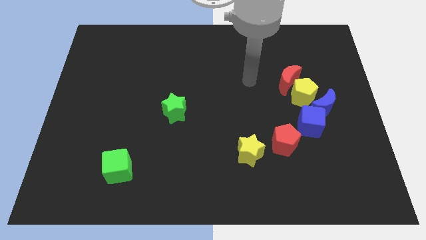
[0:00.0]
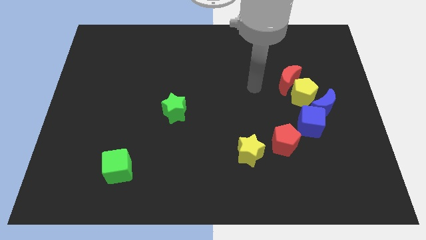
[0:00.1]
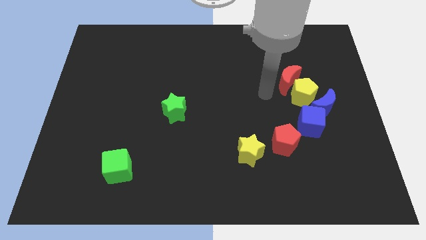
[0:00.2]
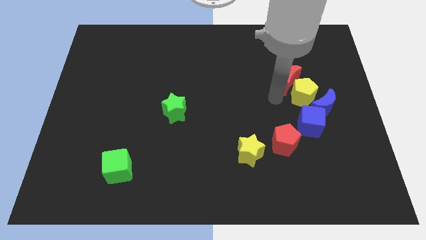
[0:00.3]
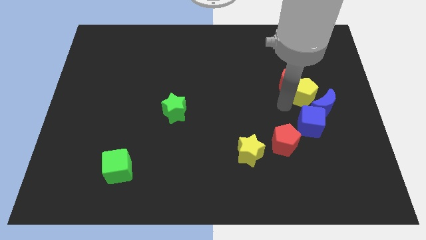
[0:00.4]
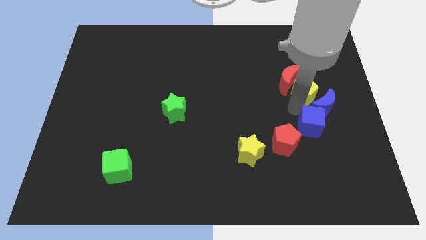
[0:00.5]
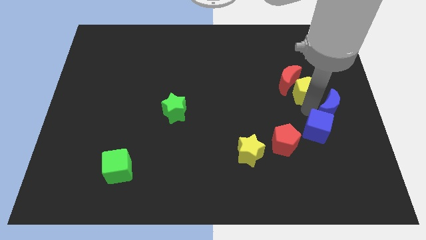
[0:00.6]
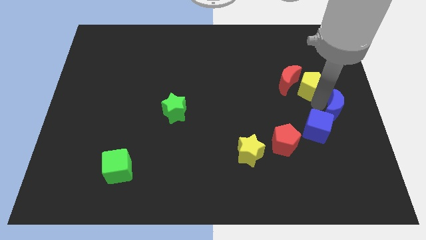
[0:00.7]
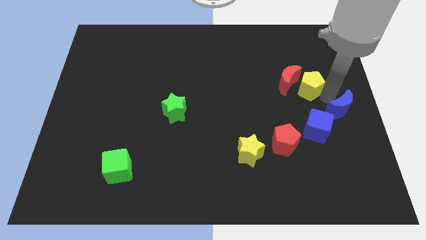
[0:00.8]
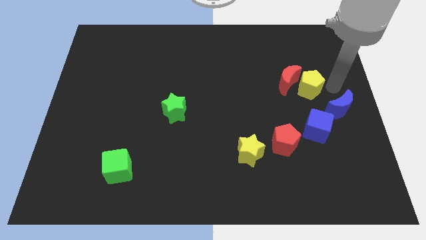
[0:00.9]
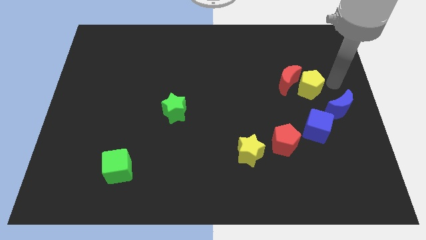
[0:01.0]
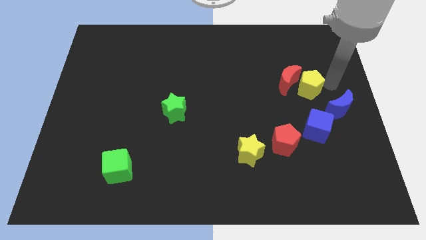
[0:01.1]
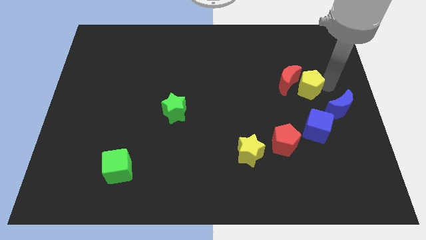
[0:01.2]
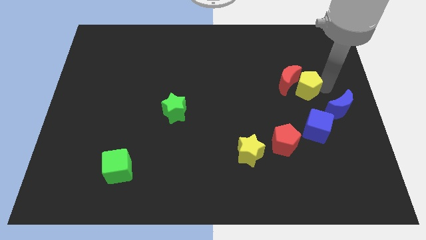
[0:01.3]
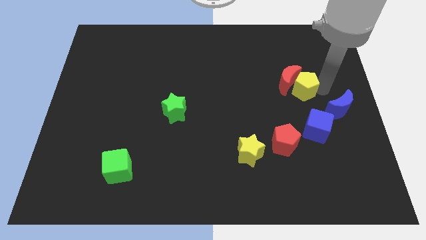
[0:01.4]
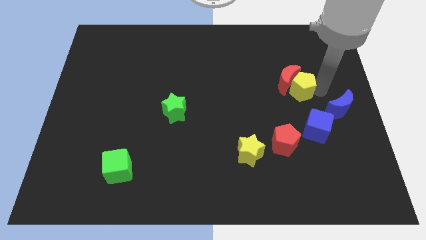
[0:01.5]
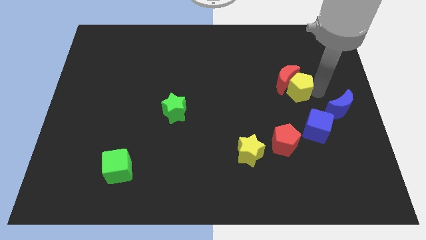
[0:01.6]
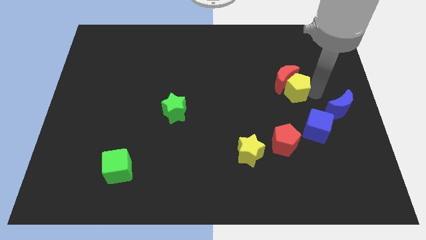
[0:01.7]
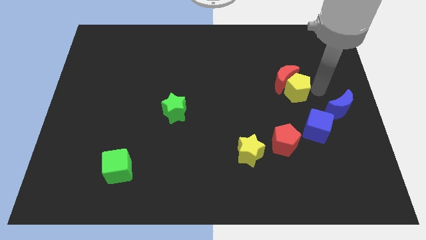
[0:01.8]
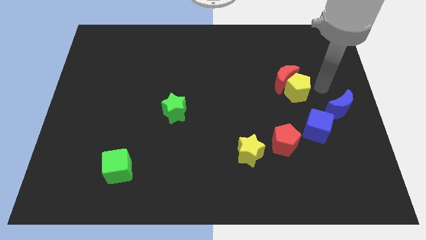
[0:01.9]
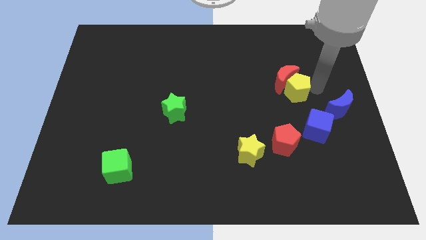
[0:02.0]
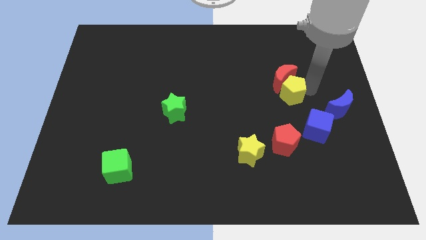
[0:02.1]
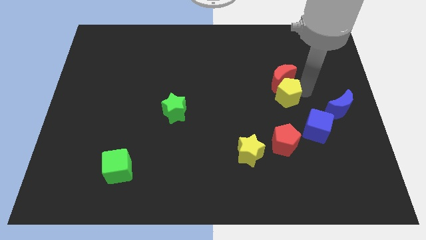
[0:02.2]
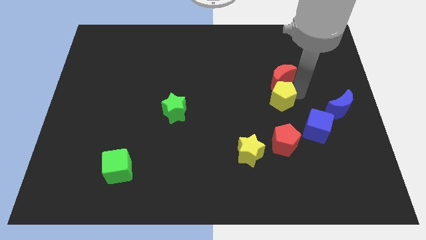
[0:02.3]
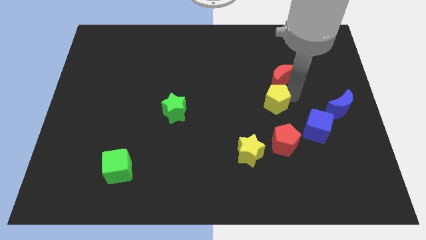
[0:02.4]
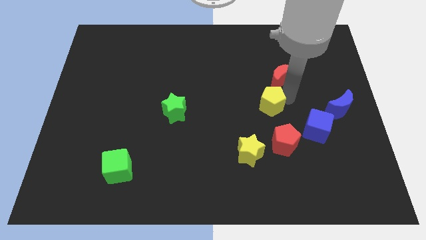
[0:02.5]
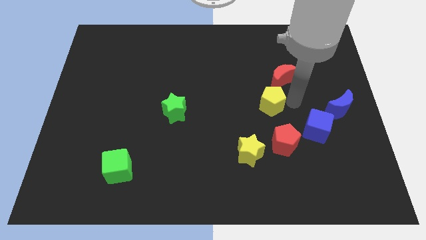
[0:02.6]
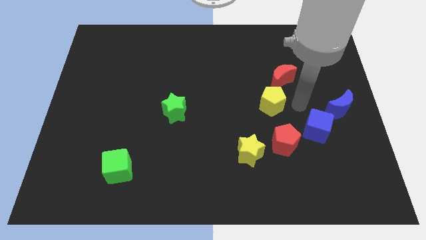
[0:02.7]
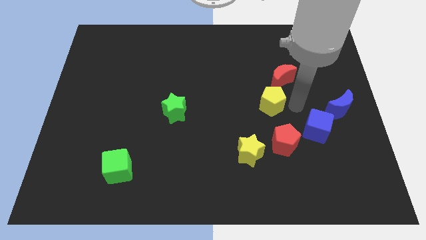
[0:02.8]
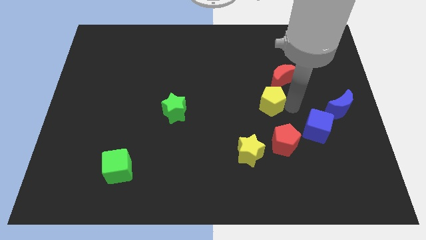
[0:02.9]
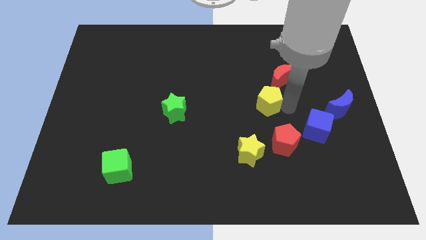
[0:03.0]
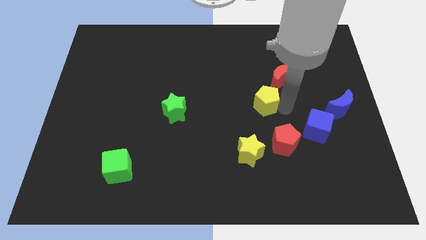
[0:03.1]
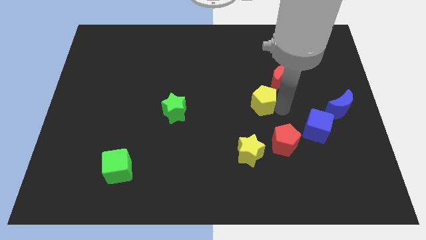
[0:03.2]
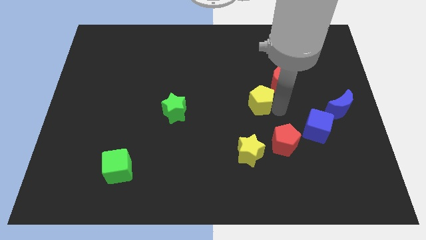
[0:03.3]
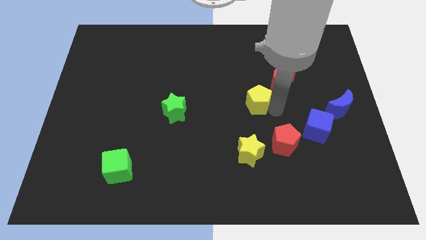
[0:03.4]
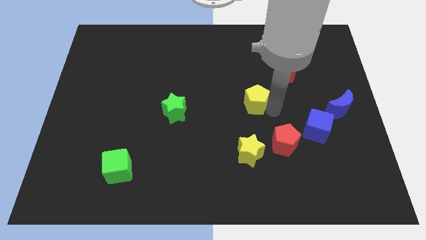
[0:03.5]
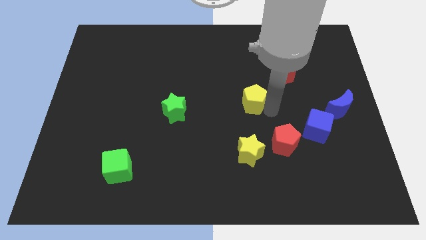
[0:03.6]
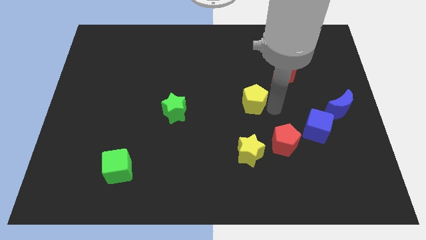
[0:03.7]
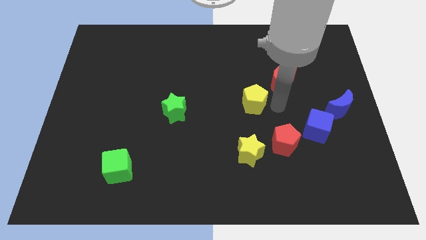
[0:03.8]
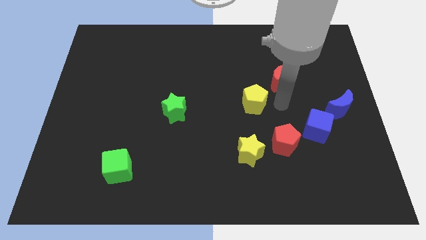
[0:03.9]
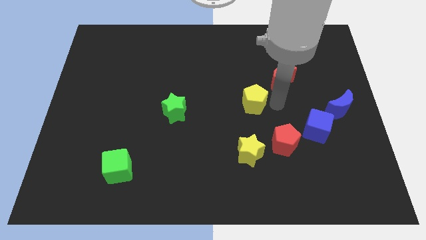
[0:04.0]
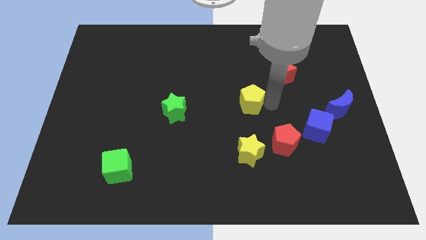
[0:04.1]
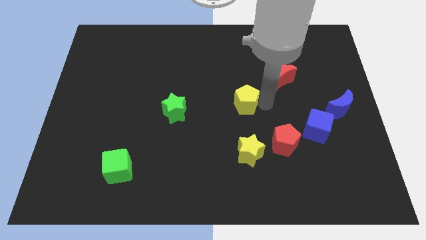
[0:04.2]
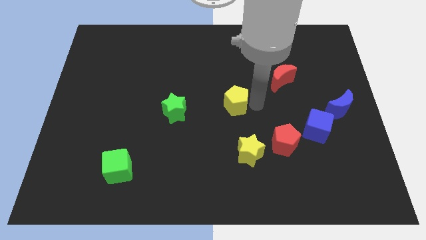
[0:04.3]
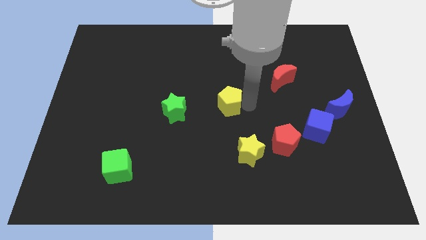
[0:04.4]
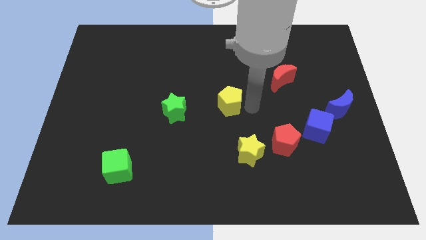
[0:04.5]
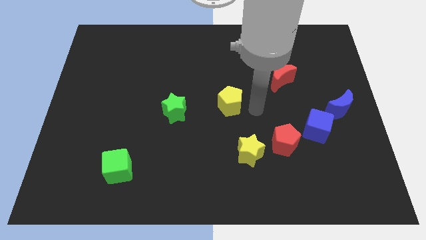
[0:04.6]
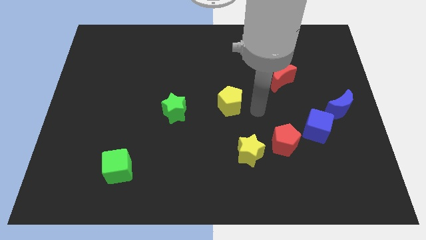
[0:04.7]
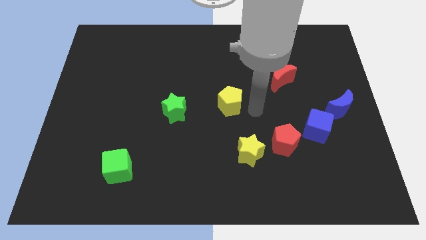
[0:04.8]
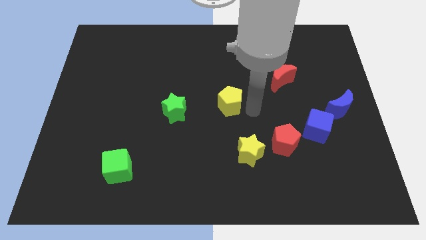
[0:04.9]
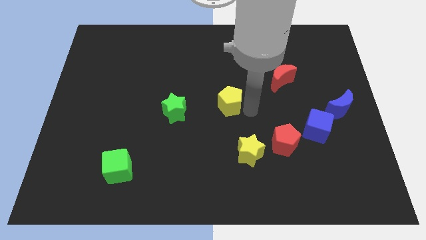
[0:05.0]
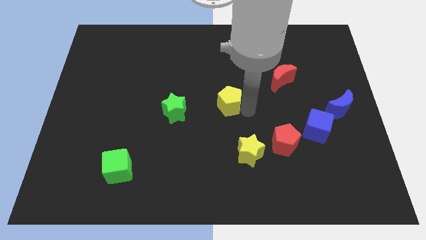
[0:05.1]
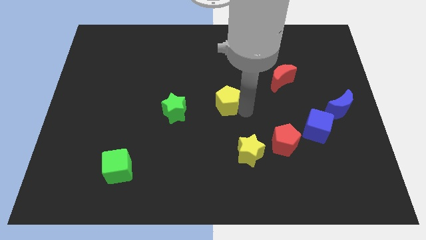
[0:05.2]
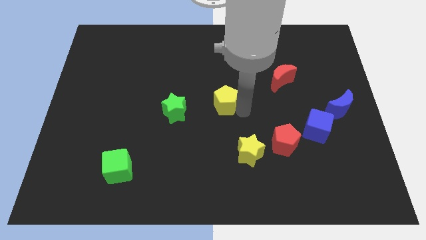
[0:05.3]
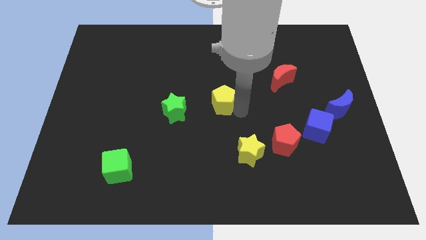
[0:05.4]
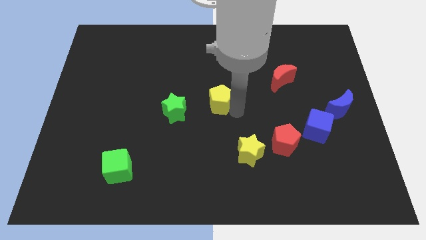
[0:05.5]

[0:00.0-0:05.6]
move the yellow pentagon left

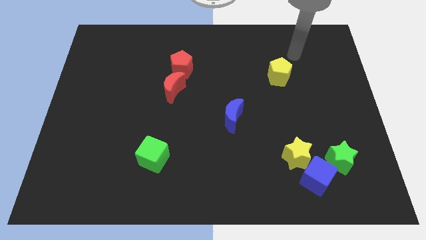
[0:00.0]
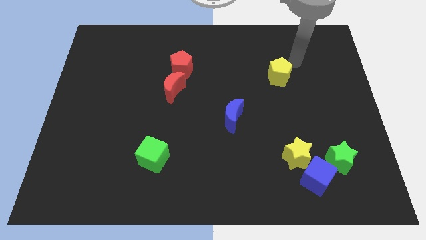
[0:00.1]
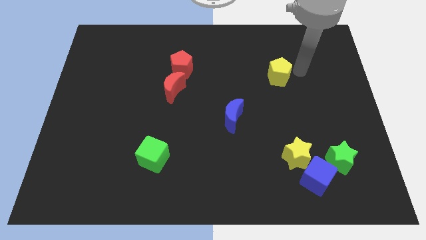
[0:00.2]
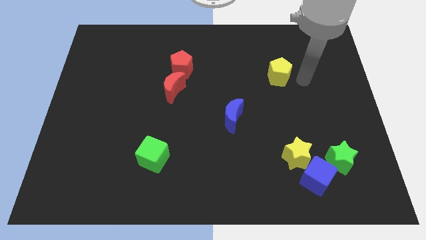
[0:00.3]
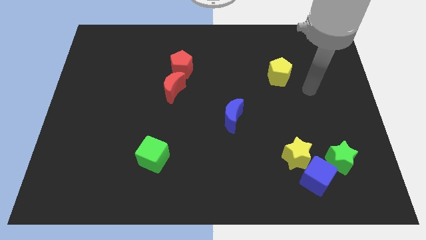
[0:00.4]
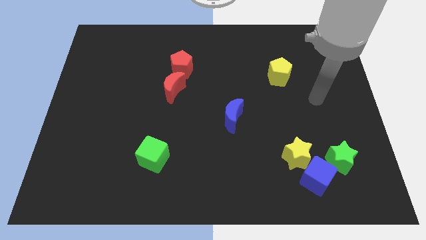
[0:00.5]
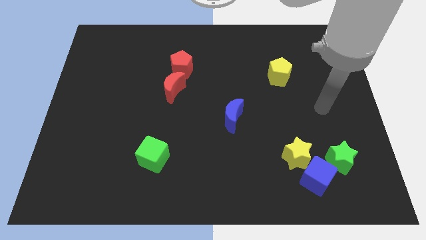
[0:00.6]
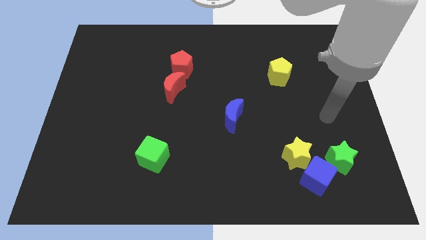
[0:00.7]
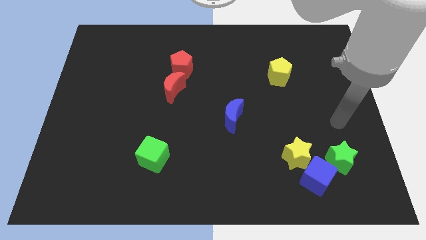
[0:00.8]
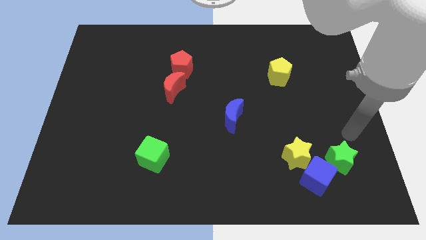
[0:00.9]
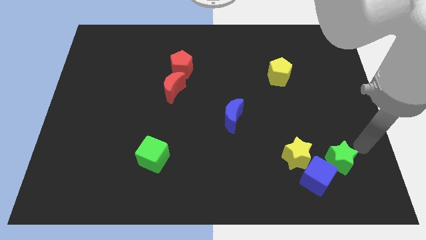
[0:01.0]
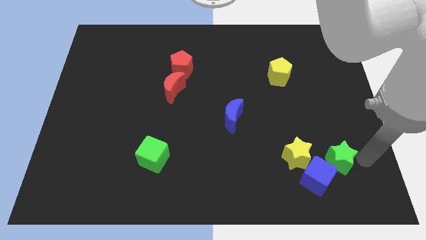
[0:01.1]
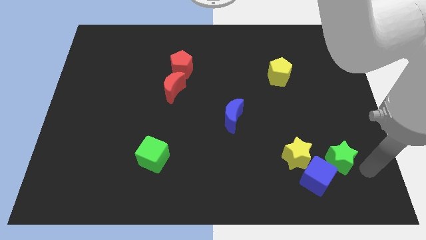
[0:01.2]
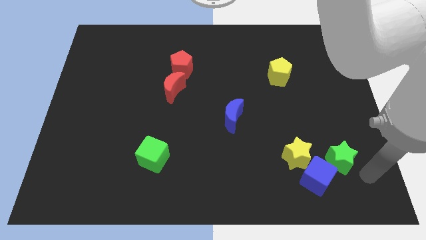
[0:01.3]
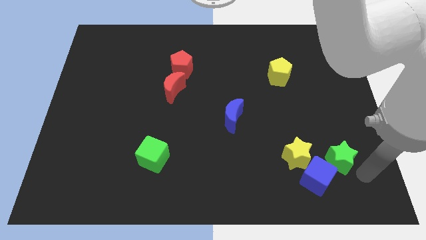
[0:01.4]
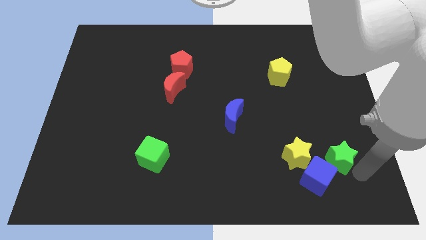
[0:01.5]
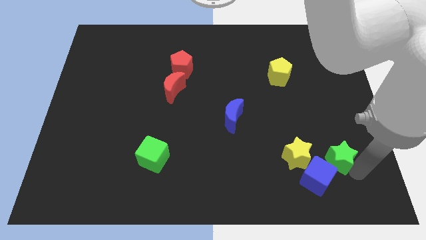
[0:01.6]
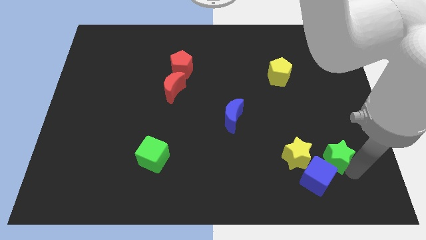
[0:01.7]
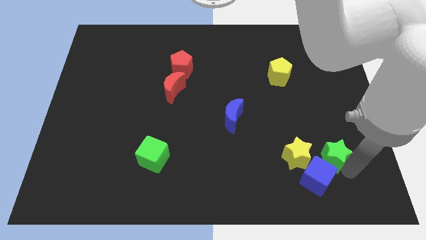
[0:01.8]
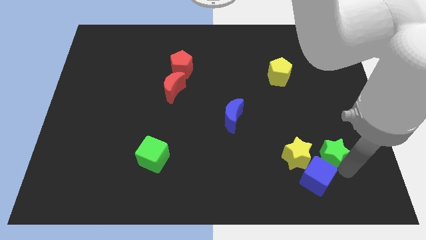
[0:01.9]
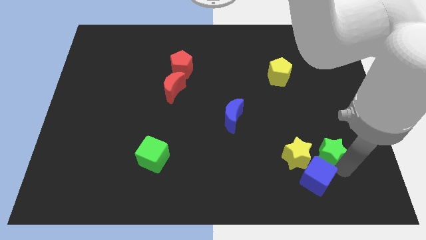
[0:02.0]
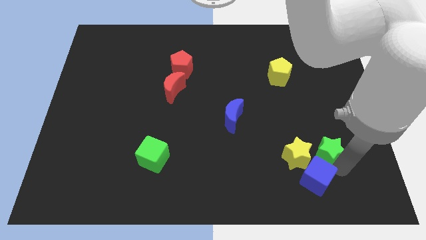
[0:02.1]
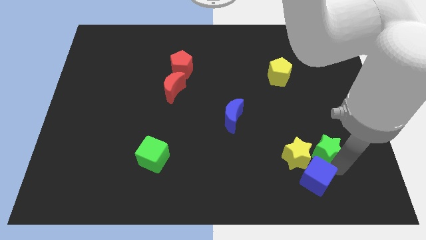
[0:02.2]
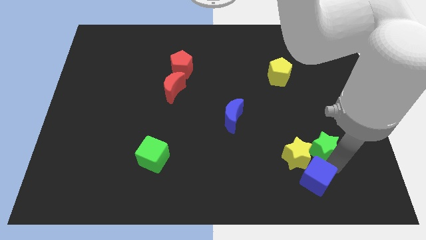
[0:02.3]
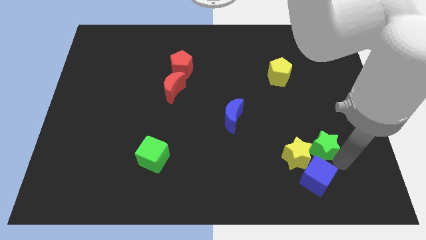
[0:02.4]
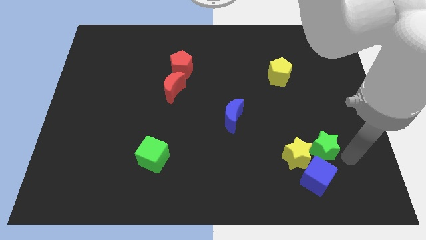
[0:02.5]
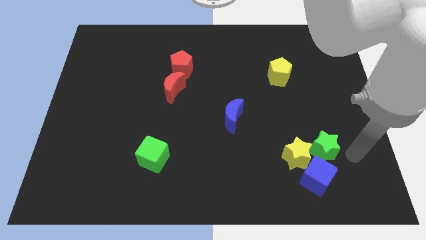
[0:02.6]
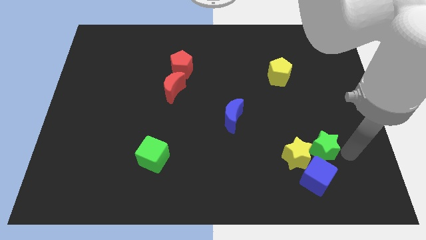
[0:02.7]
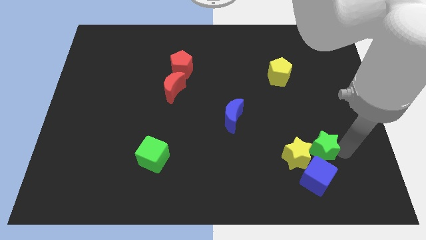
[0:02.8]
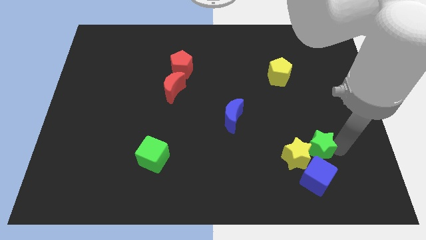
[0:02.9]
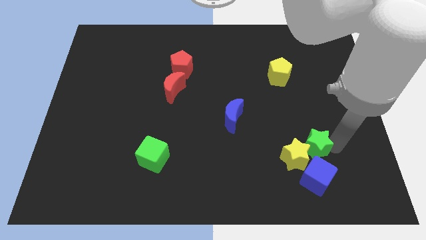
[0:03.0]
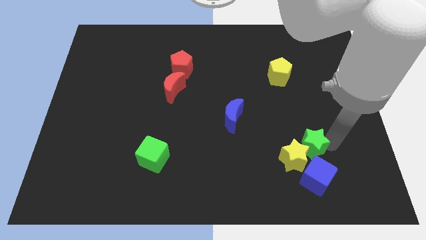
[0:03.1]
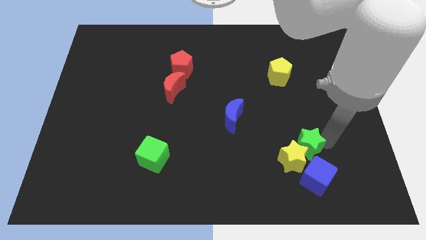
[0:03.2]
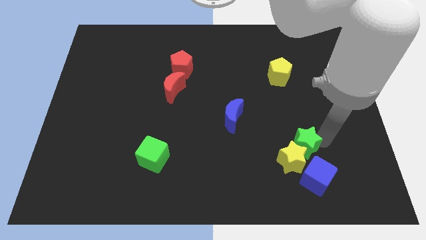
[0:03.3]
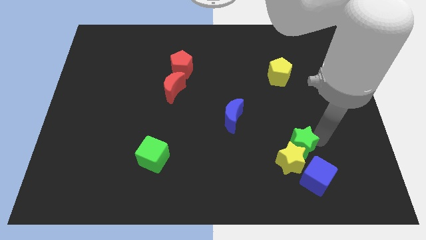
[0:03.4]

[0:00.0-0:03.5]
slightly slide the green star left
